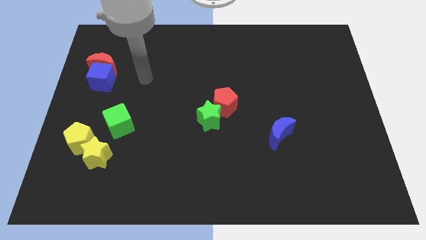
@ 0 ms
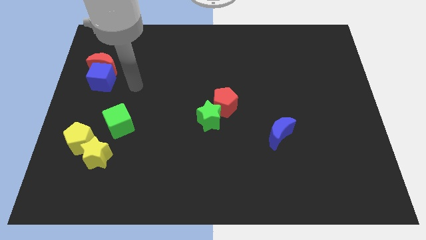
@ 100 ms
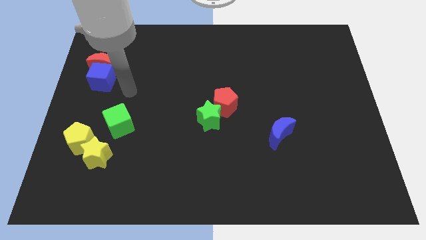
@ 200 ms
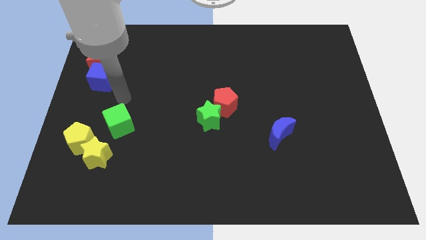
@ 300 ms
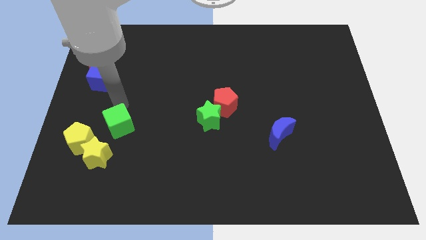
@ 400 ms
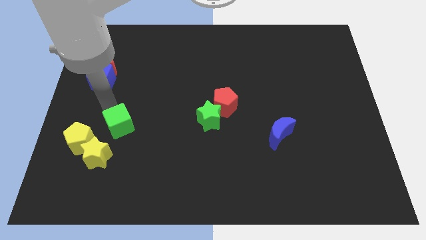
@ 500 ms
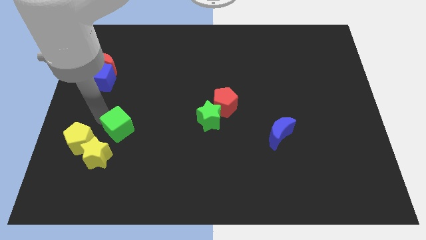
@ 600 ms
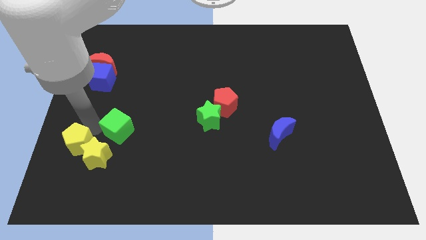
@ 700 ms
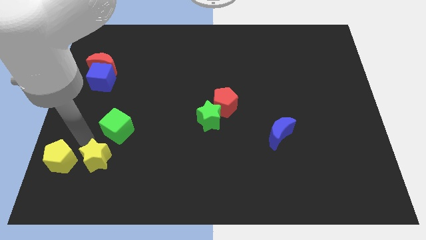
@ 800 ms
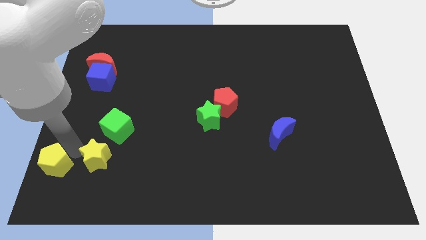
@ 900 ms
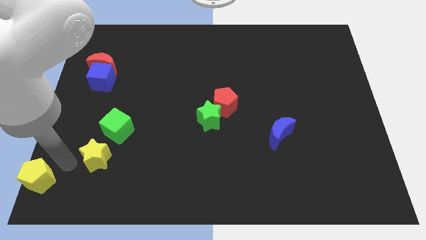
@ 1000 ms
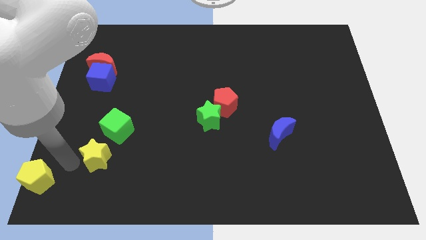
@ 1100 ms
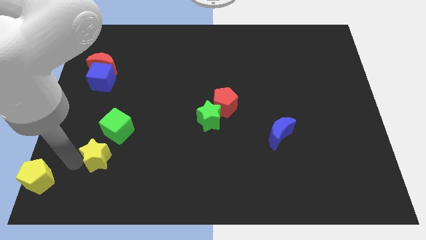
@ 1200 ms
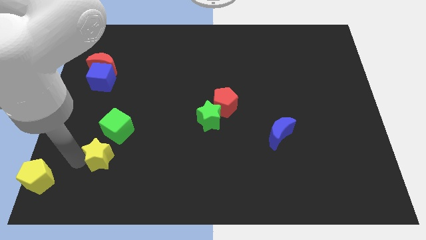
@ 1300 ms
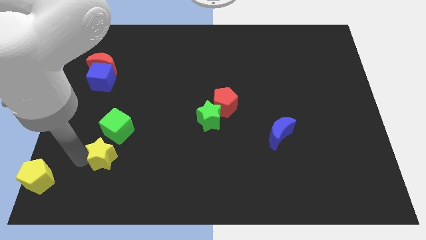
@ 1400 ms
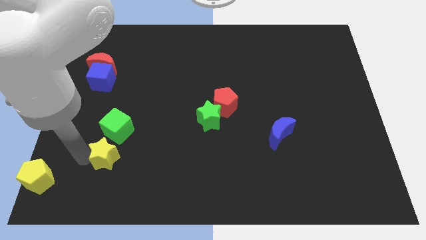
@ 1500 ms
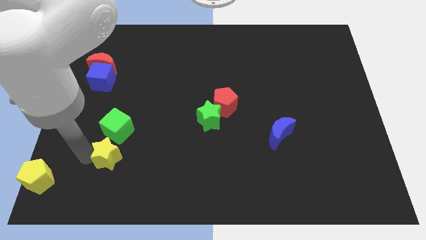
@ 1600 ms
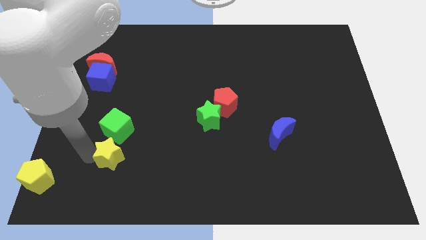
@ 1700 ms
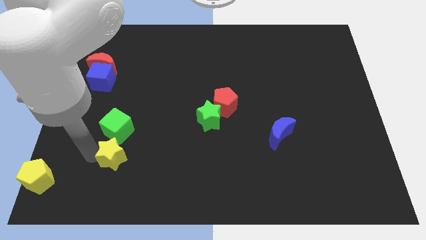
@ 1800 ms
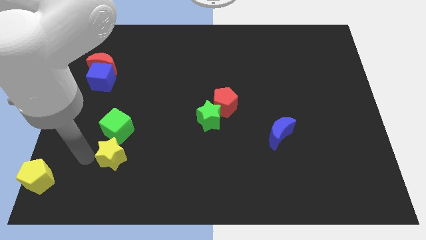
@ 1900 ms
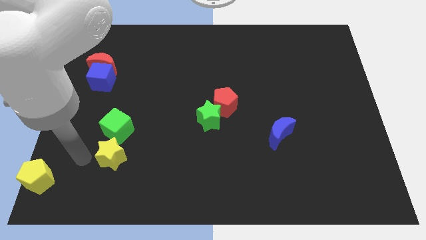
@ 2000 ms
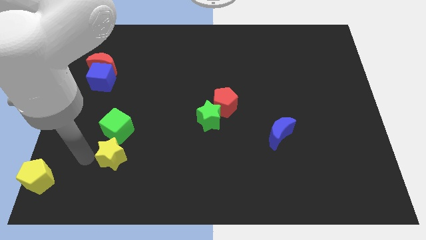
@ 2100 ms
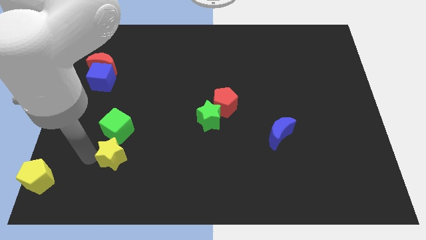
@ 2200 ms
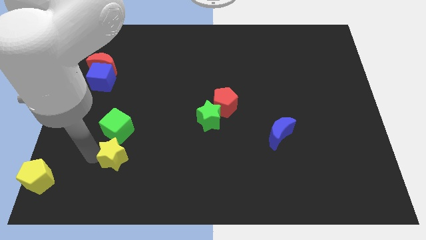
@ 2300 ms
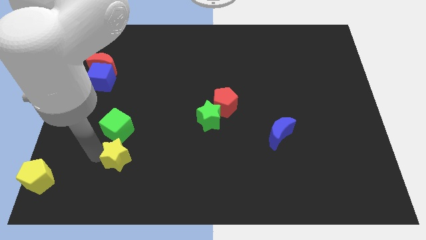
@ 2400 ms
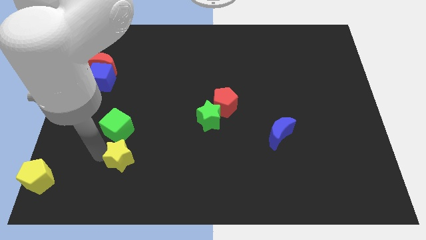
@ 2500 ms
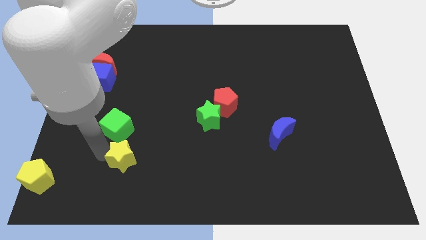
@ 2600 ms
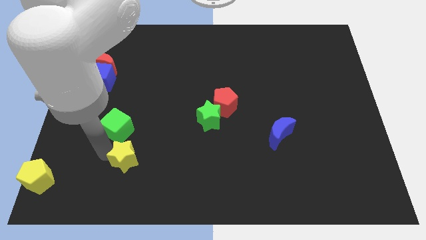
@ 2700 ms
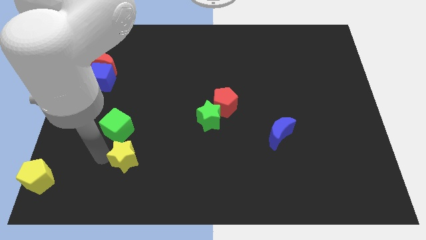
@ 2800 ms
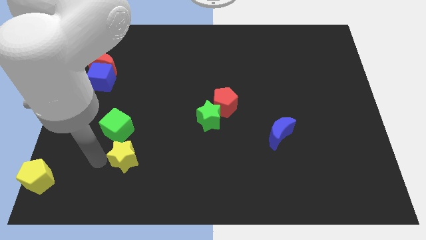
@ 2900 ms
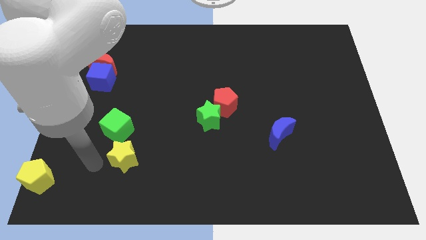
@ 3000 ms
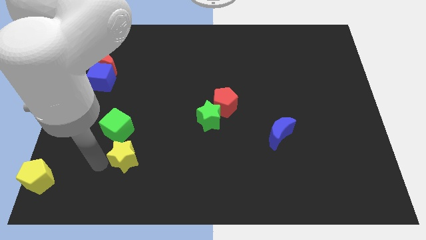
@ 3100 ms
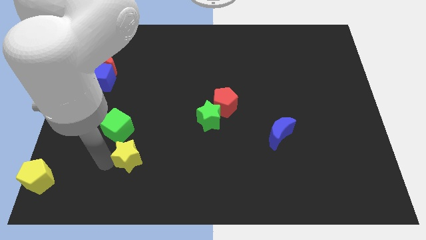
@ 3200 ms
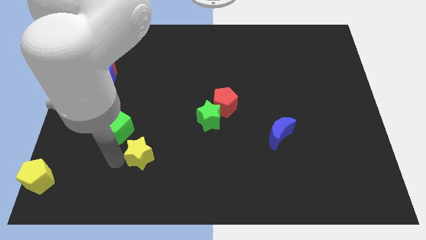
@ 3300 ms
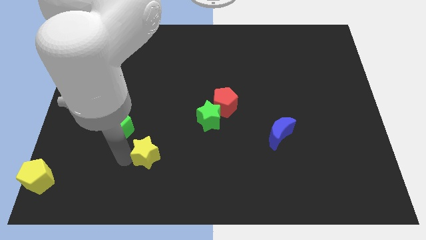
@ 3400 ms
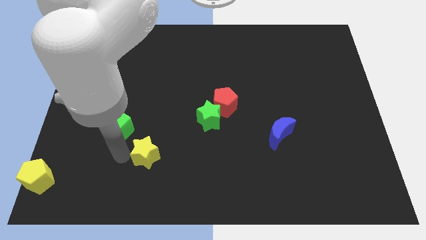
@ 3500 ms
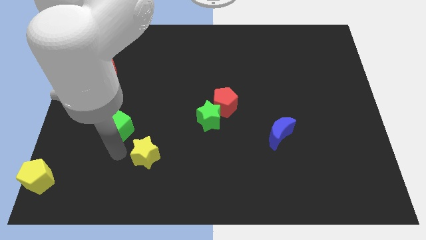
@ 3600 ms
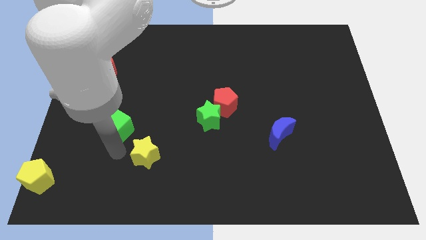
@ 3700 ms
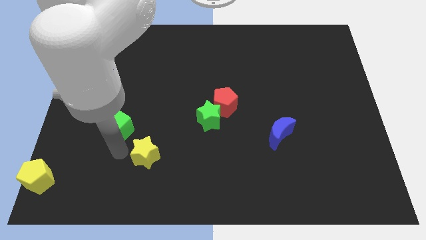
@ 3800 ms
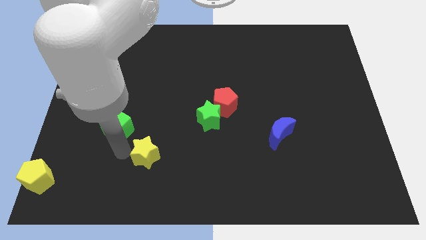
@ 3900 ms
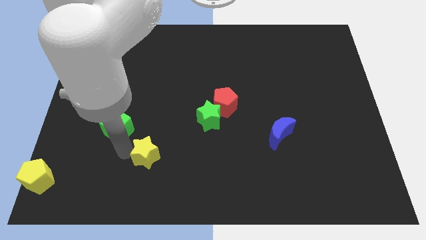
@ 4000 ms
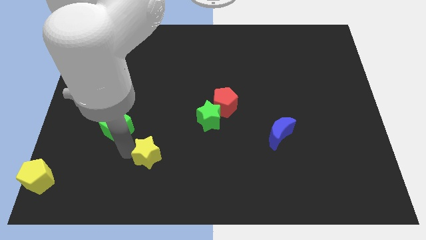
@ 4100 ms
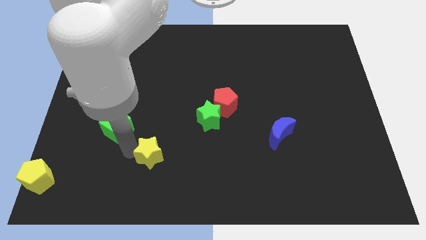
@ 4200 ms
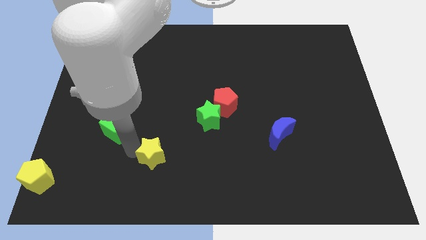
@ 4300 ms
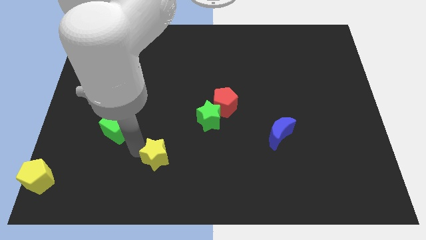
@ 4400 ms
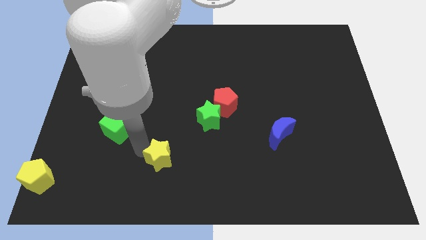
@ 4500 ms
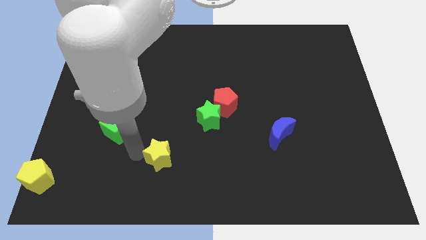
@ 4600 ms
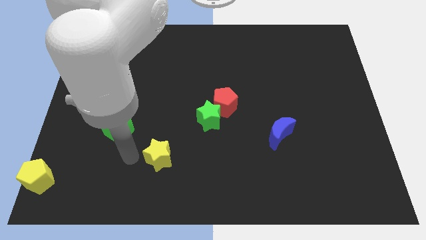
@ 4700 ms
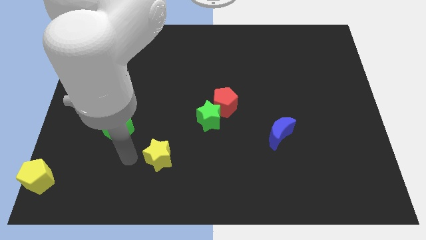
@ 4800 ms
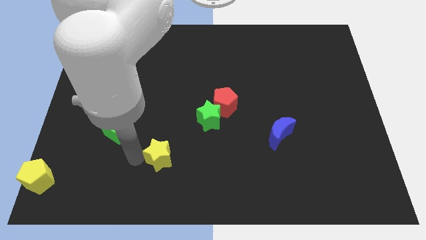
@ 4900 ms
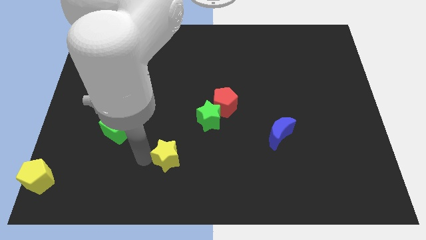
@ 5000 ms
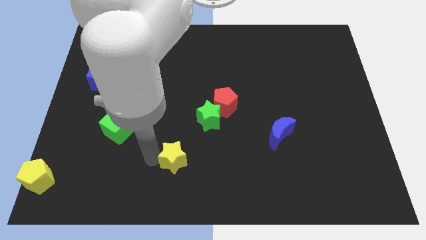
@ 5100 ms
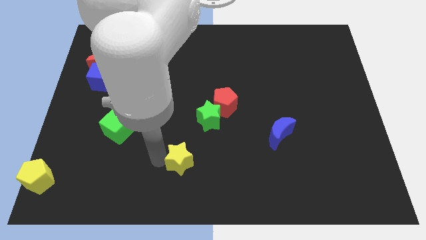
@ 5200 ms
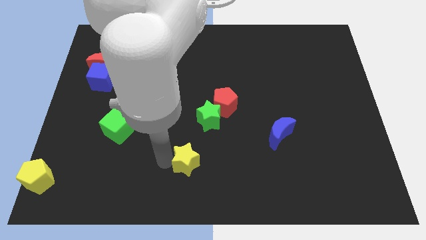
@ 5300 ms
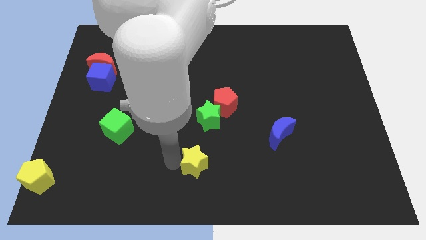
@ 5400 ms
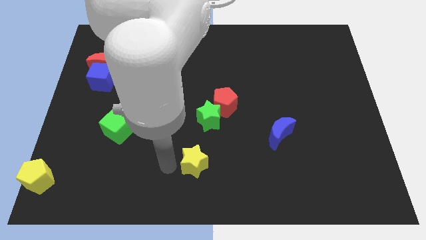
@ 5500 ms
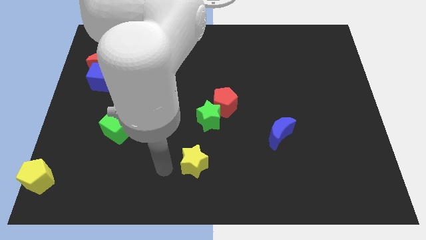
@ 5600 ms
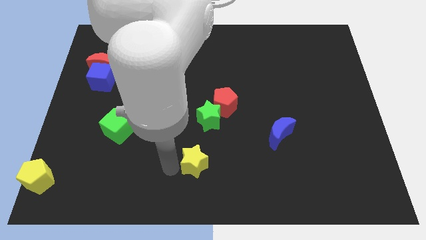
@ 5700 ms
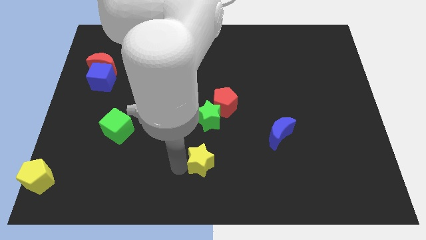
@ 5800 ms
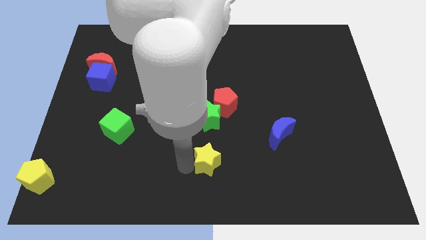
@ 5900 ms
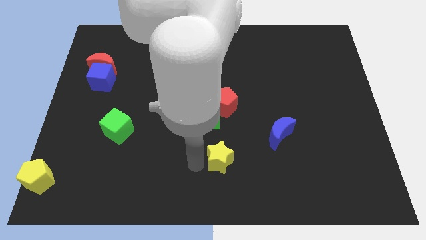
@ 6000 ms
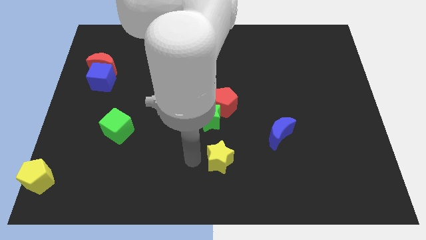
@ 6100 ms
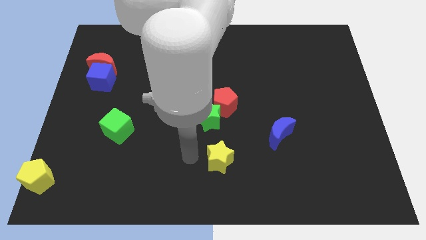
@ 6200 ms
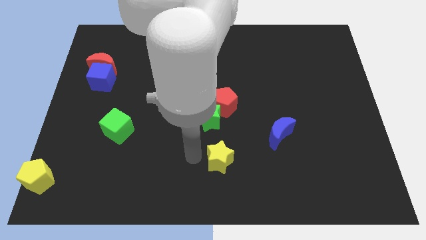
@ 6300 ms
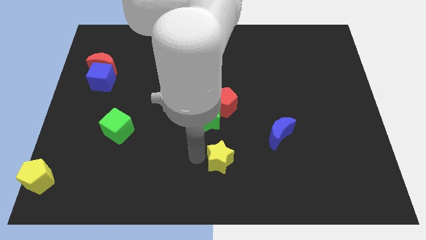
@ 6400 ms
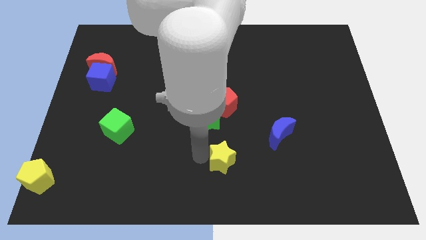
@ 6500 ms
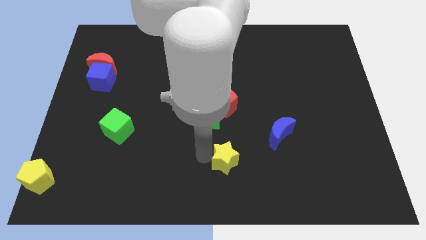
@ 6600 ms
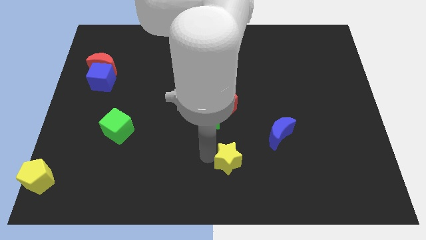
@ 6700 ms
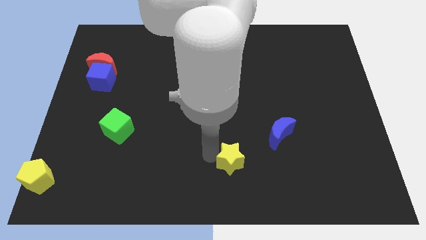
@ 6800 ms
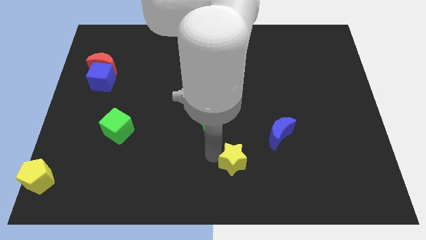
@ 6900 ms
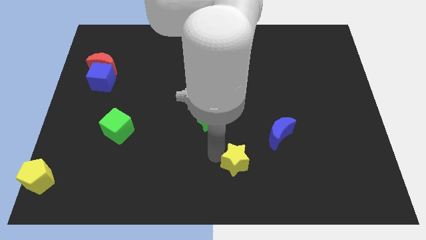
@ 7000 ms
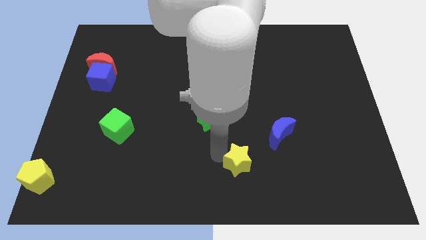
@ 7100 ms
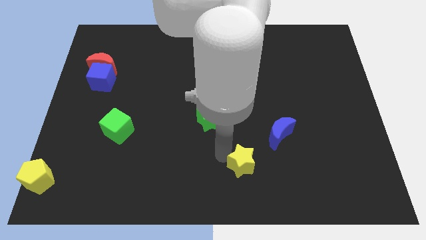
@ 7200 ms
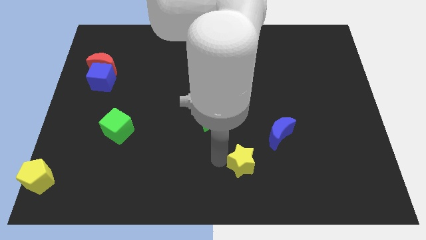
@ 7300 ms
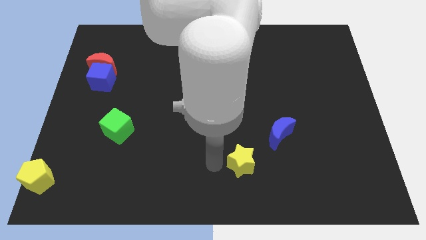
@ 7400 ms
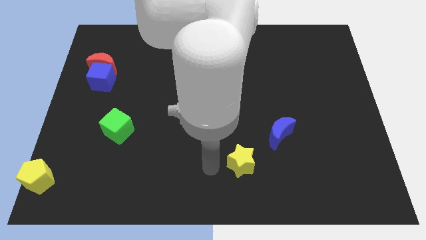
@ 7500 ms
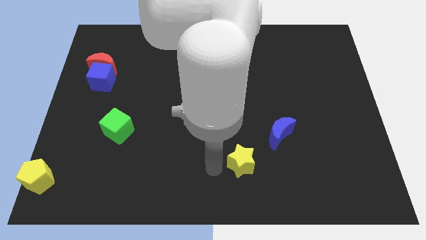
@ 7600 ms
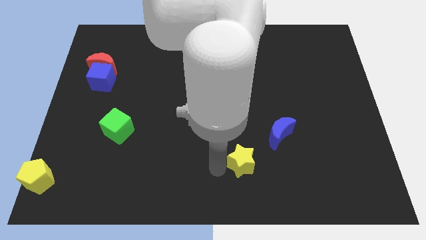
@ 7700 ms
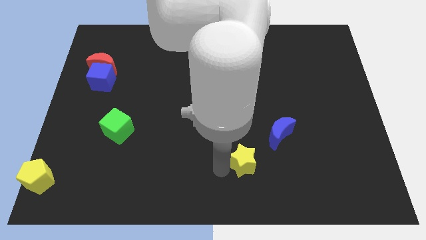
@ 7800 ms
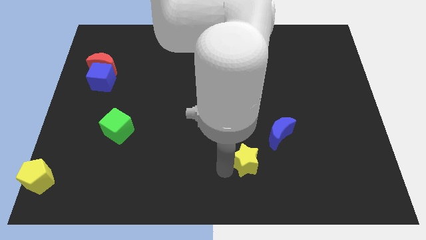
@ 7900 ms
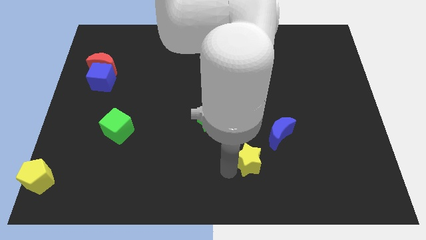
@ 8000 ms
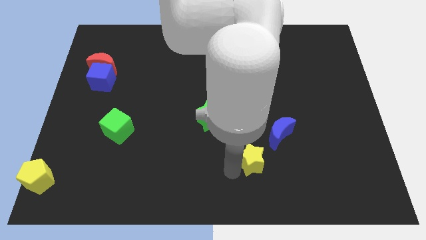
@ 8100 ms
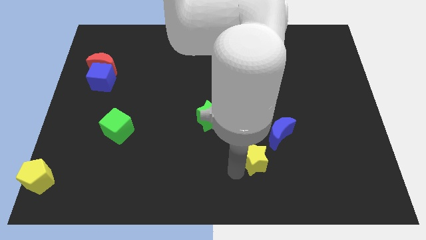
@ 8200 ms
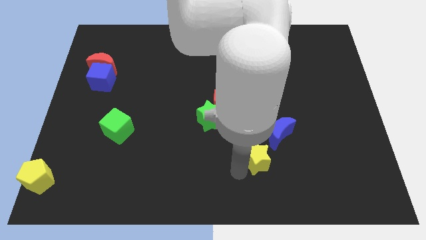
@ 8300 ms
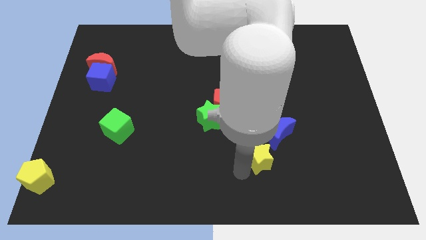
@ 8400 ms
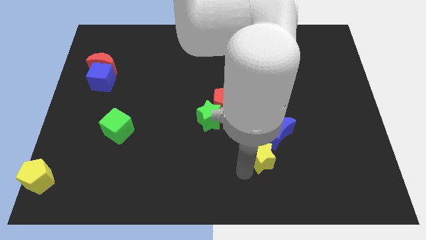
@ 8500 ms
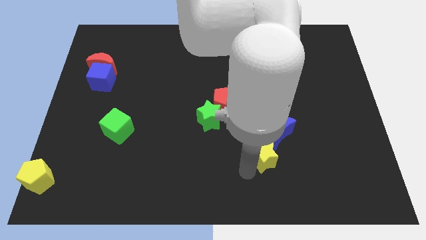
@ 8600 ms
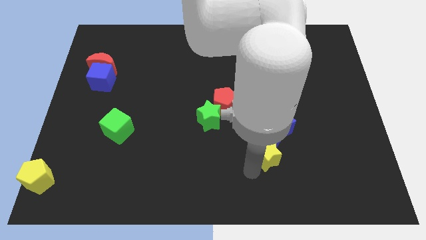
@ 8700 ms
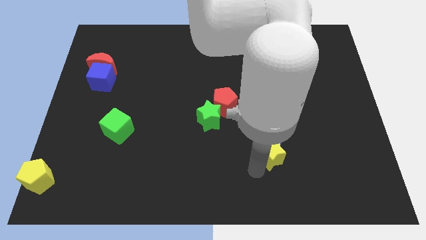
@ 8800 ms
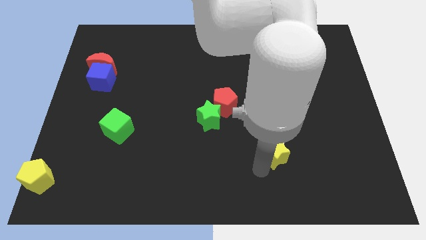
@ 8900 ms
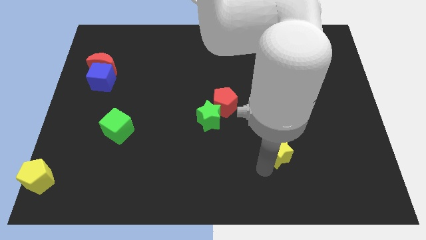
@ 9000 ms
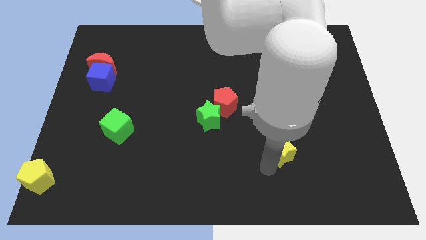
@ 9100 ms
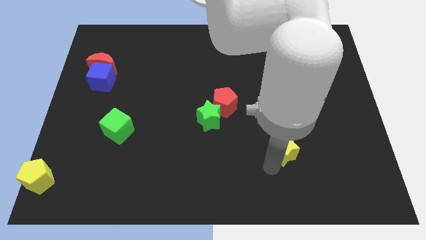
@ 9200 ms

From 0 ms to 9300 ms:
slide the yellow star to the bottom right side of the blue moon
